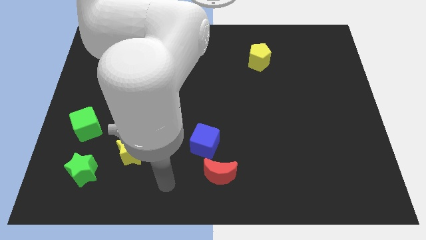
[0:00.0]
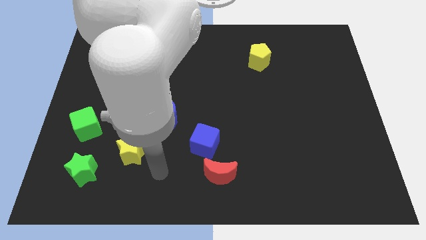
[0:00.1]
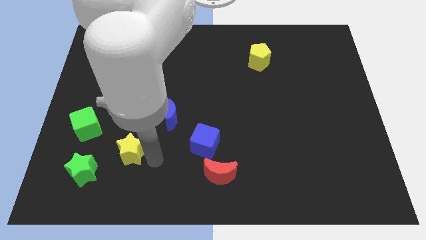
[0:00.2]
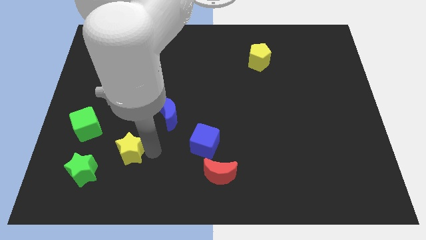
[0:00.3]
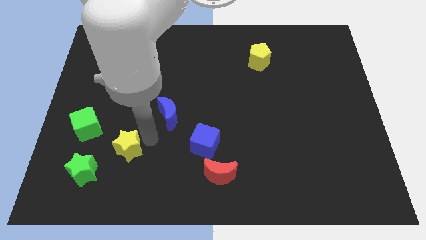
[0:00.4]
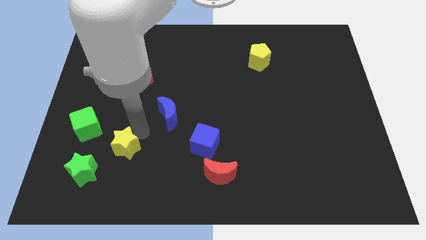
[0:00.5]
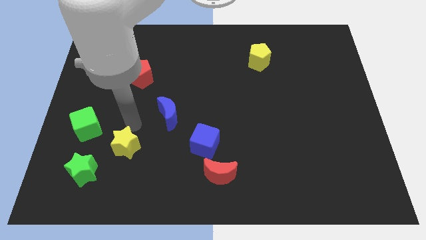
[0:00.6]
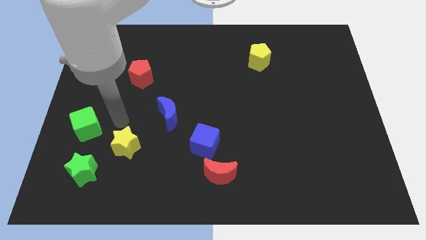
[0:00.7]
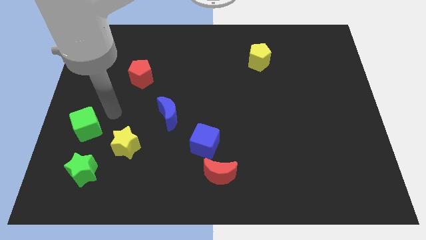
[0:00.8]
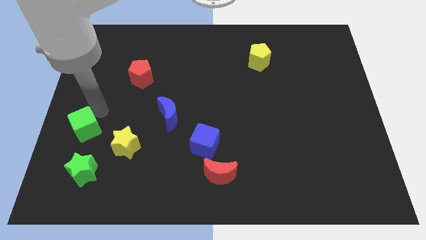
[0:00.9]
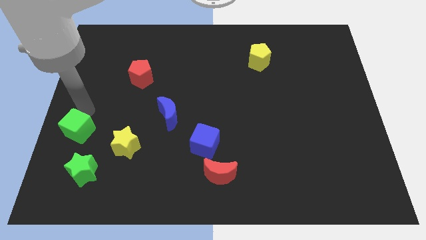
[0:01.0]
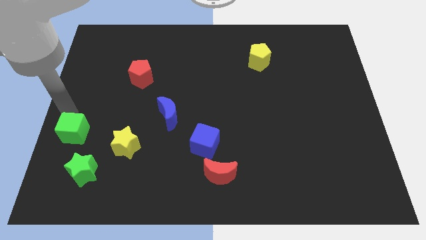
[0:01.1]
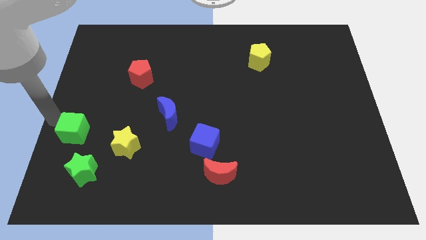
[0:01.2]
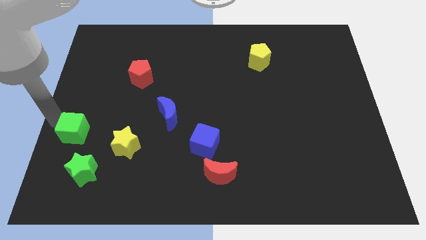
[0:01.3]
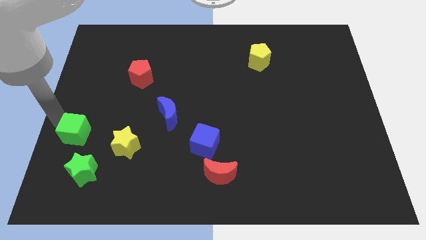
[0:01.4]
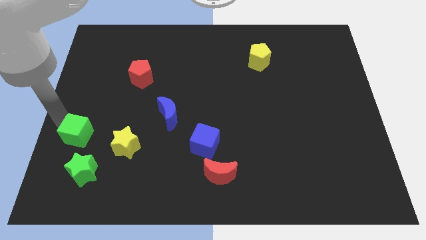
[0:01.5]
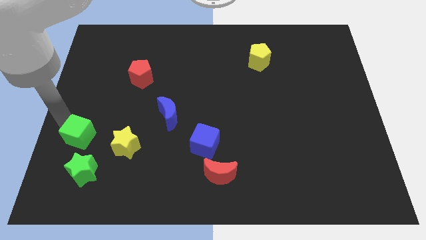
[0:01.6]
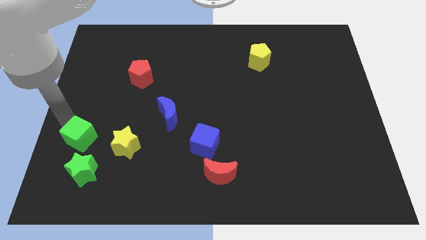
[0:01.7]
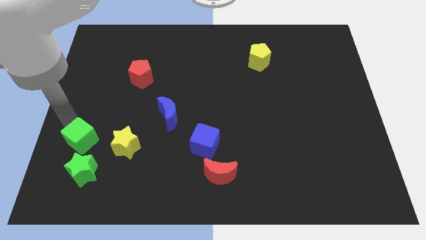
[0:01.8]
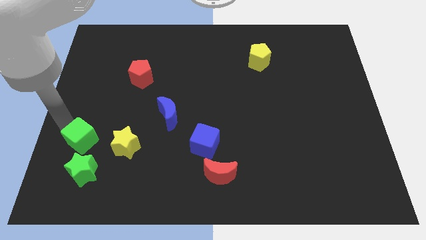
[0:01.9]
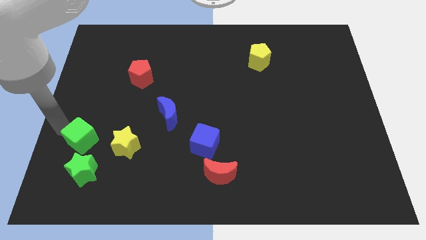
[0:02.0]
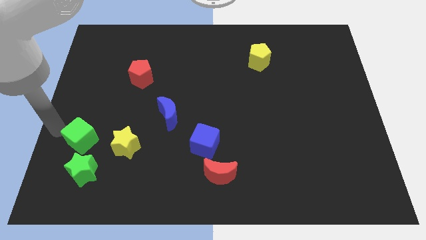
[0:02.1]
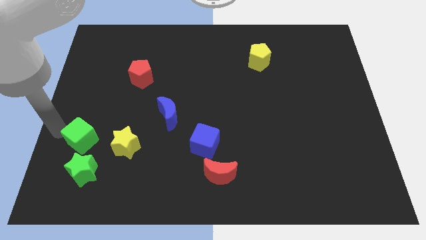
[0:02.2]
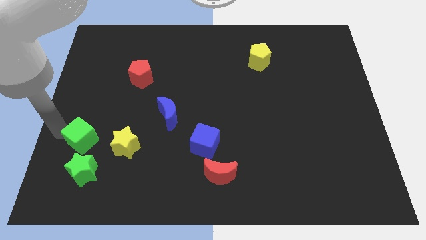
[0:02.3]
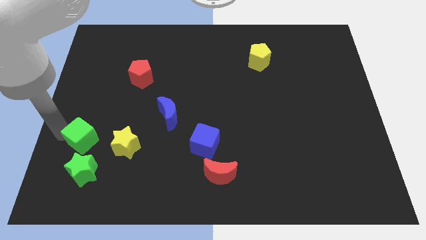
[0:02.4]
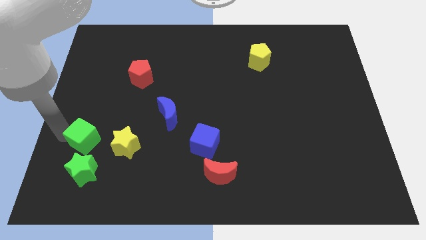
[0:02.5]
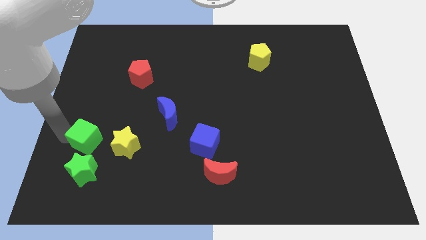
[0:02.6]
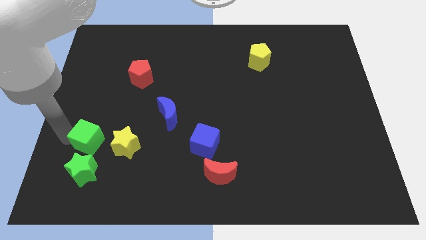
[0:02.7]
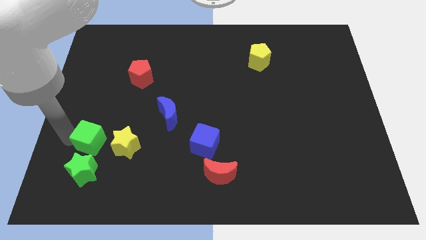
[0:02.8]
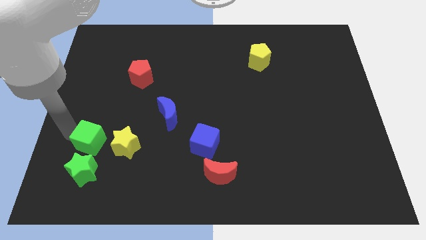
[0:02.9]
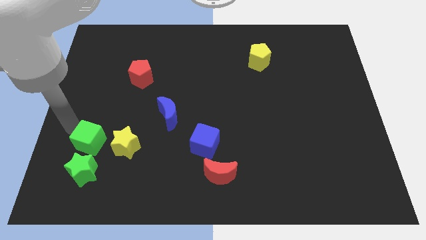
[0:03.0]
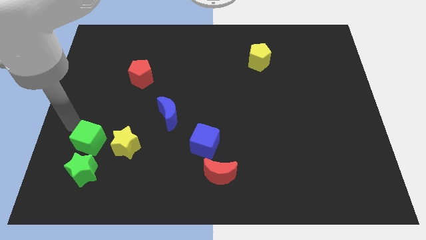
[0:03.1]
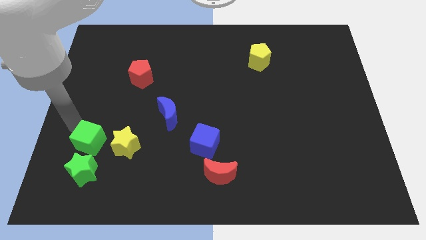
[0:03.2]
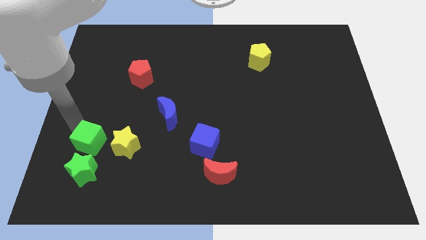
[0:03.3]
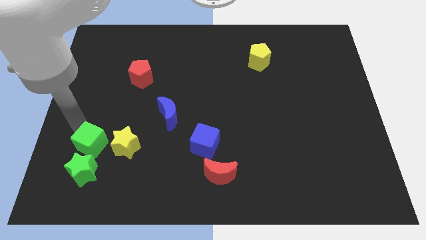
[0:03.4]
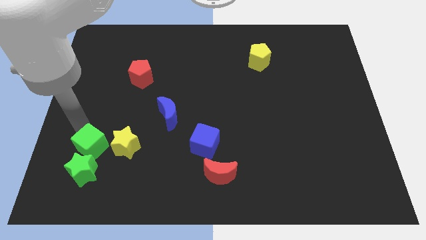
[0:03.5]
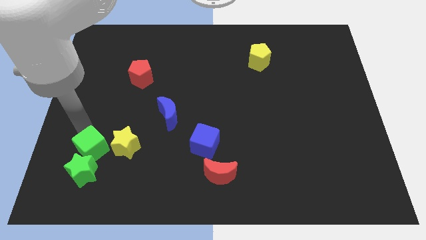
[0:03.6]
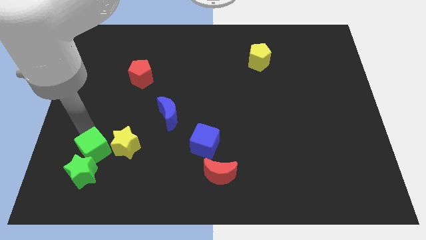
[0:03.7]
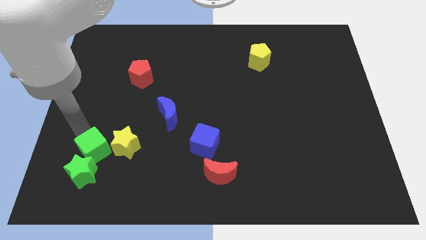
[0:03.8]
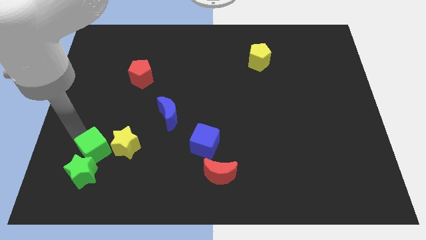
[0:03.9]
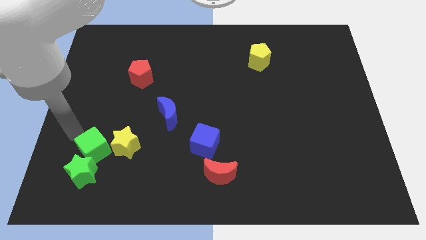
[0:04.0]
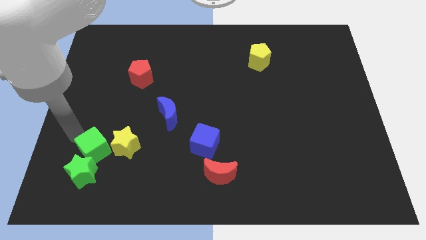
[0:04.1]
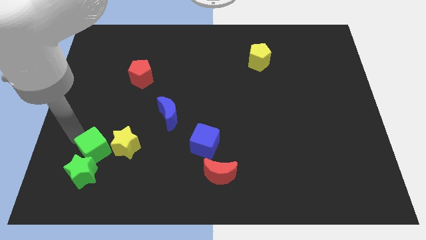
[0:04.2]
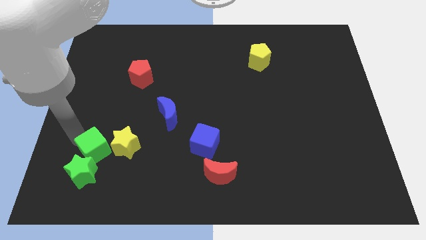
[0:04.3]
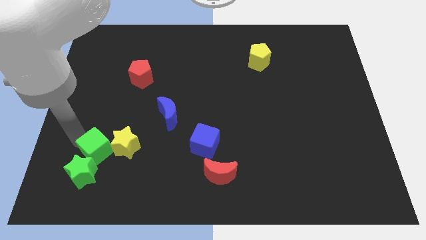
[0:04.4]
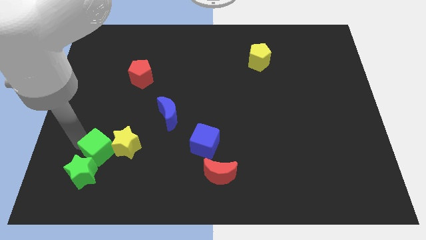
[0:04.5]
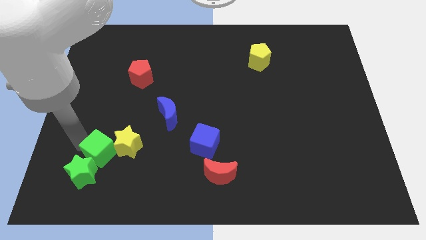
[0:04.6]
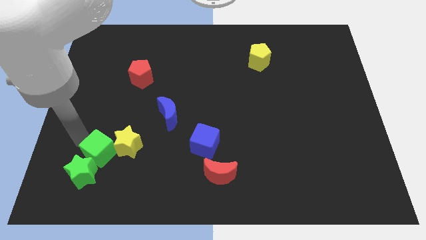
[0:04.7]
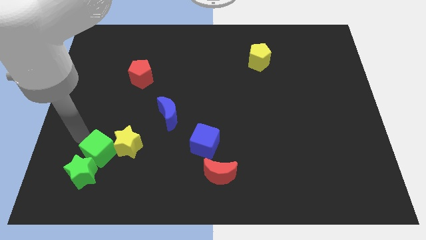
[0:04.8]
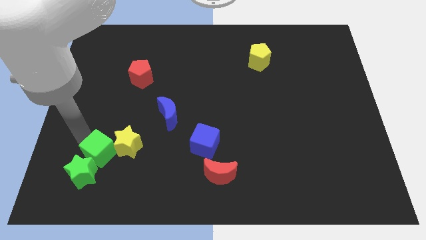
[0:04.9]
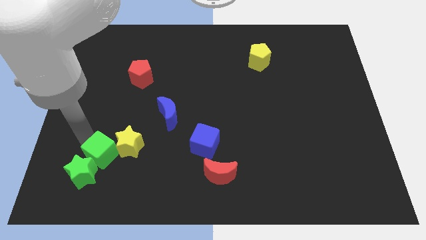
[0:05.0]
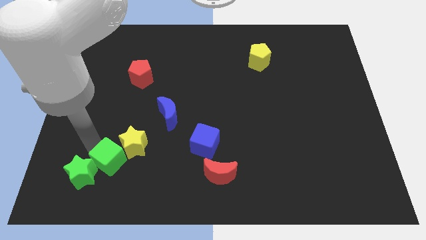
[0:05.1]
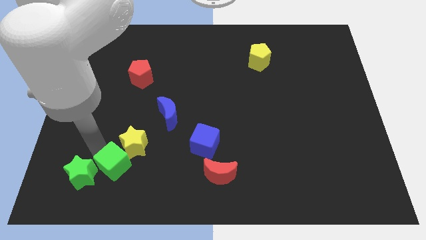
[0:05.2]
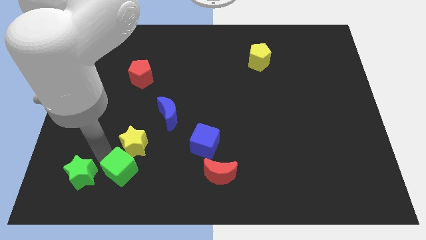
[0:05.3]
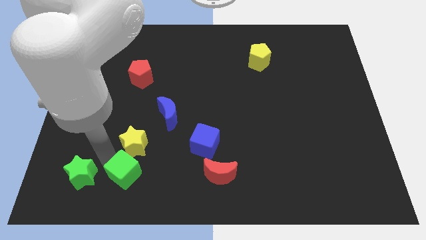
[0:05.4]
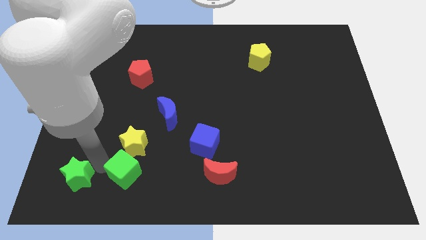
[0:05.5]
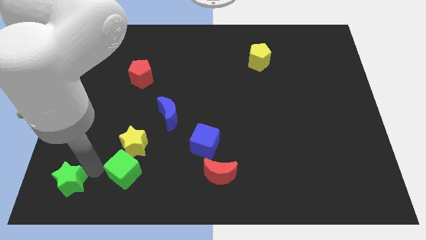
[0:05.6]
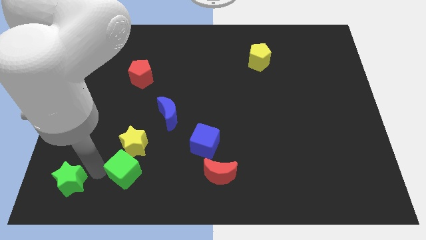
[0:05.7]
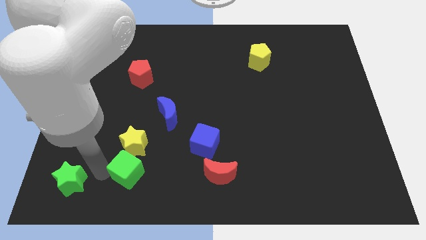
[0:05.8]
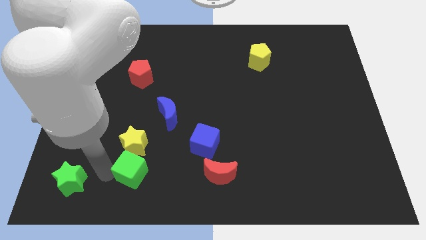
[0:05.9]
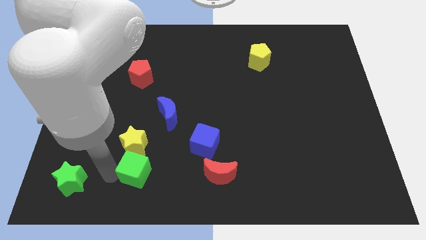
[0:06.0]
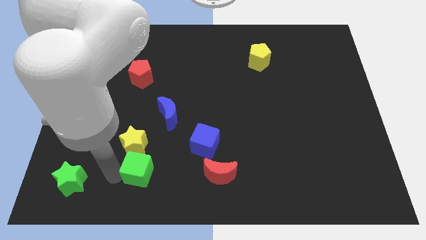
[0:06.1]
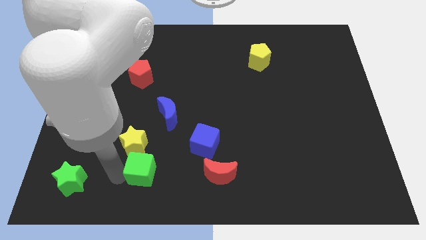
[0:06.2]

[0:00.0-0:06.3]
put the green cube to the left of the red moon

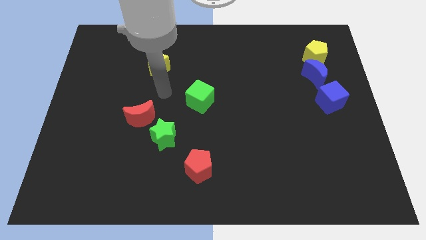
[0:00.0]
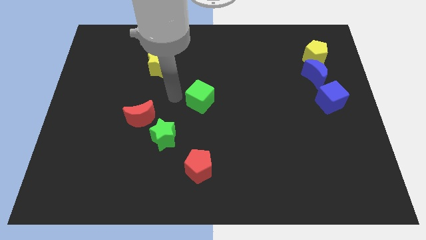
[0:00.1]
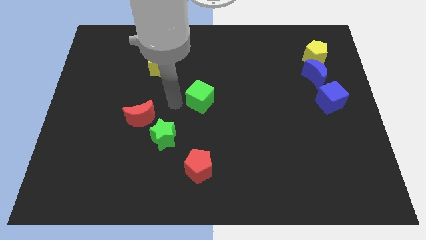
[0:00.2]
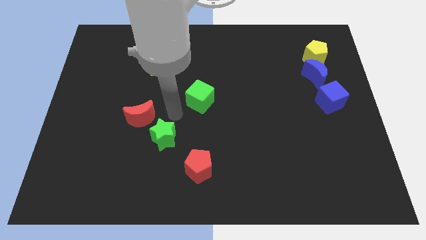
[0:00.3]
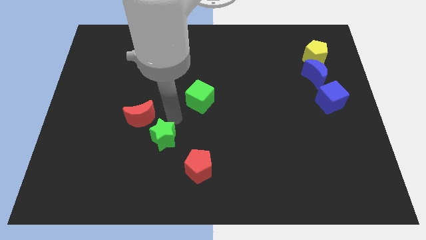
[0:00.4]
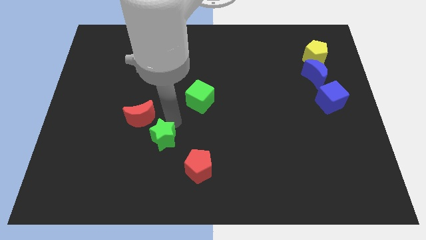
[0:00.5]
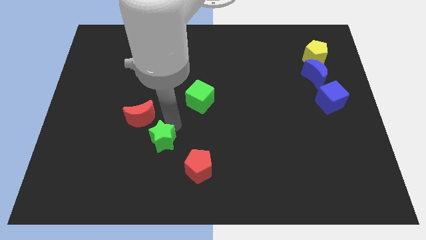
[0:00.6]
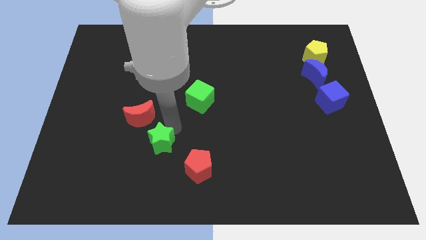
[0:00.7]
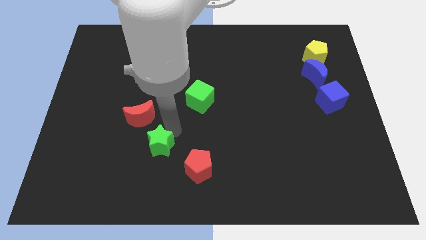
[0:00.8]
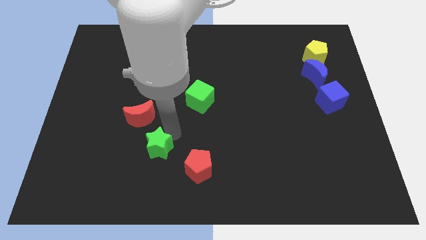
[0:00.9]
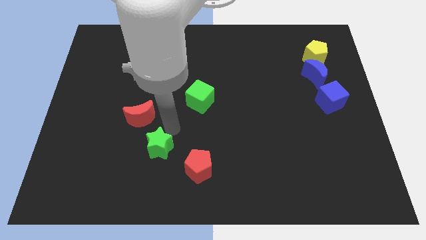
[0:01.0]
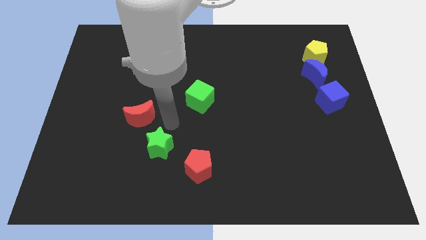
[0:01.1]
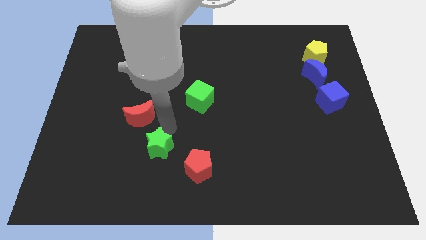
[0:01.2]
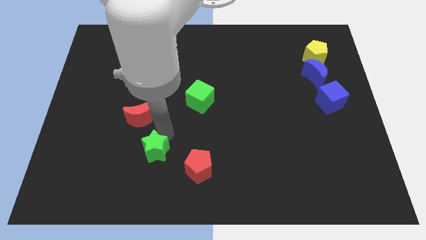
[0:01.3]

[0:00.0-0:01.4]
push the green star left of the red pentagon
